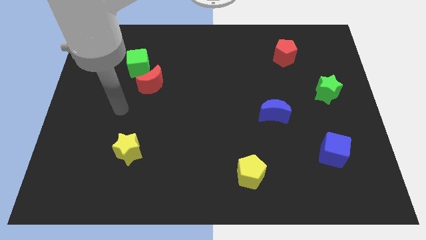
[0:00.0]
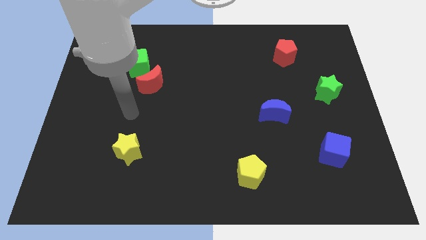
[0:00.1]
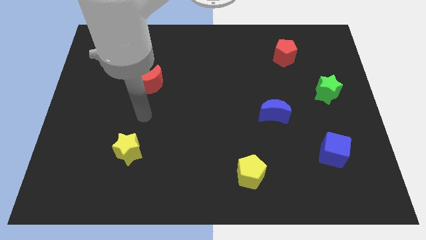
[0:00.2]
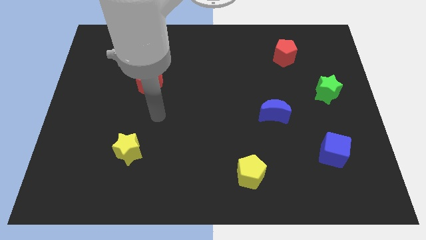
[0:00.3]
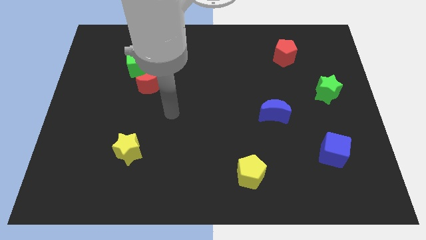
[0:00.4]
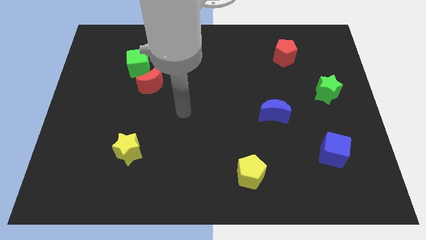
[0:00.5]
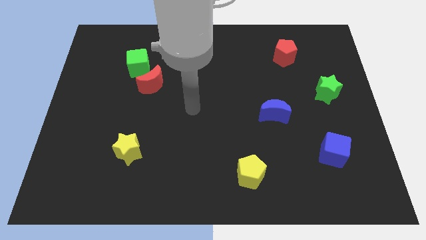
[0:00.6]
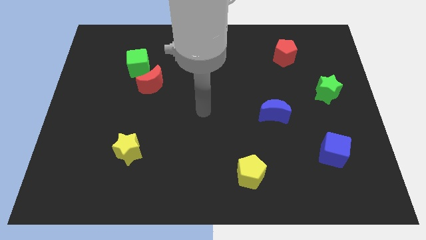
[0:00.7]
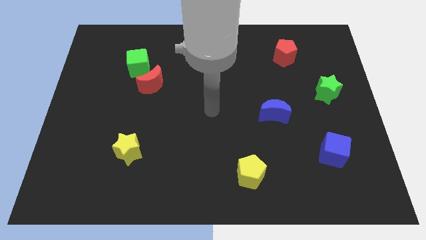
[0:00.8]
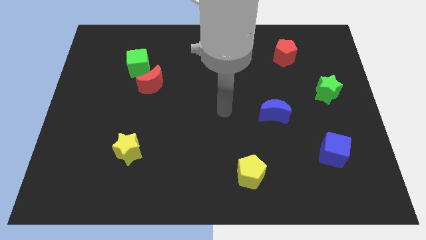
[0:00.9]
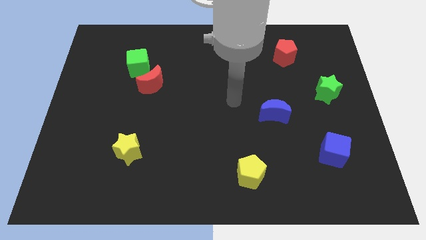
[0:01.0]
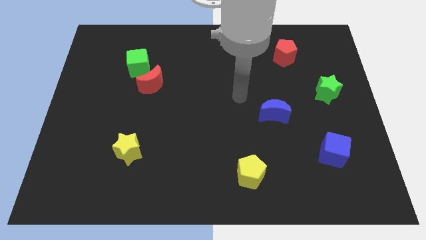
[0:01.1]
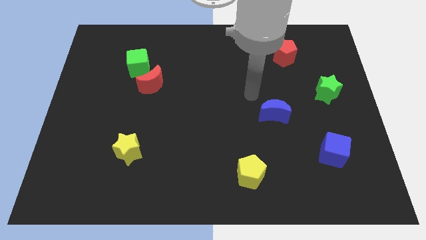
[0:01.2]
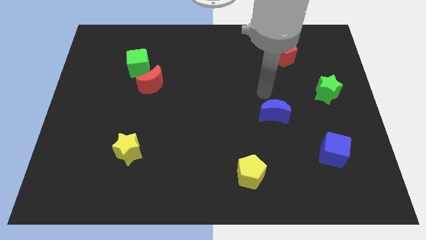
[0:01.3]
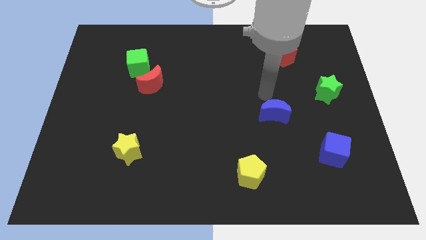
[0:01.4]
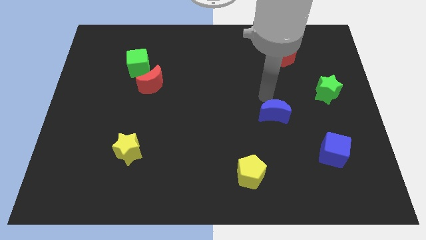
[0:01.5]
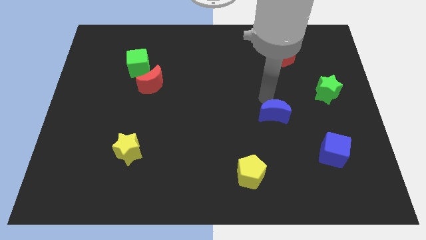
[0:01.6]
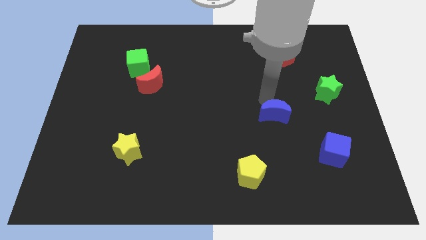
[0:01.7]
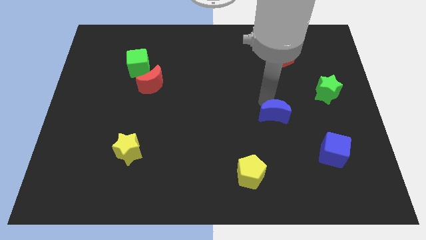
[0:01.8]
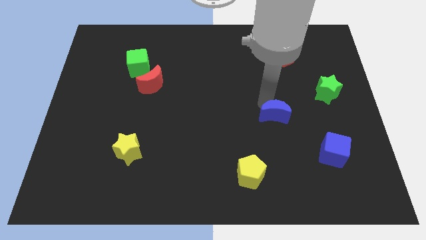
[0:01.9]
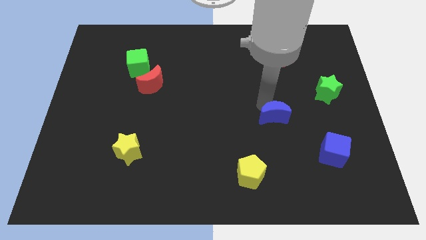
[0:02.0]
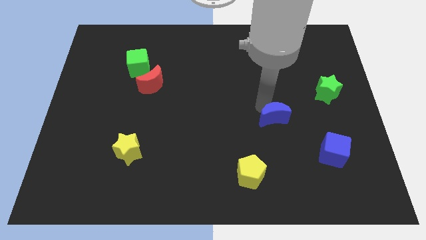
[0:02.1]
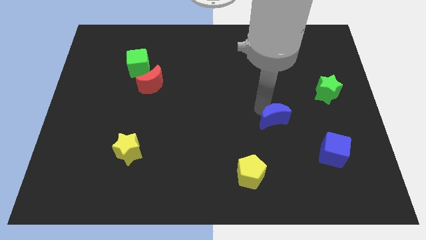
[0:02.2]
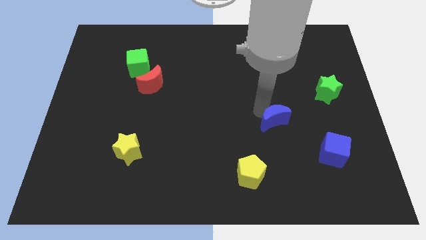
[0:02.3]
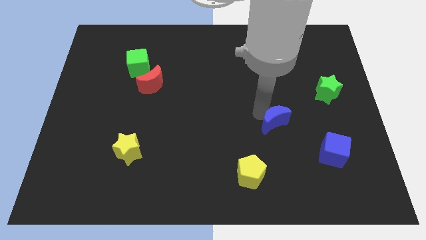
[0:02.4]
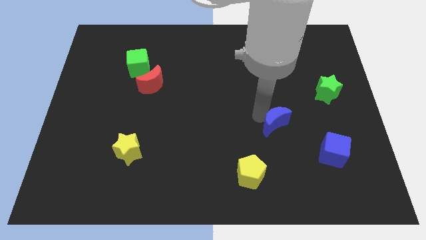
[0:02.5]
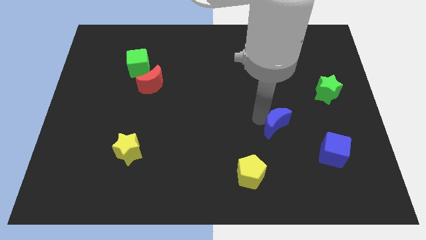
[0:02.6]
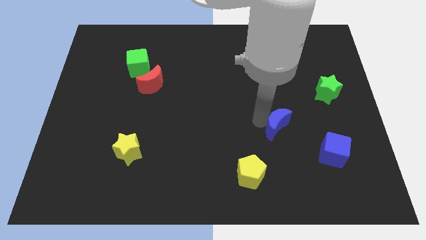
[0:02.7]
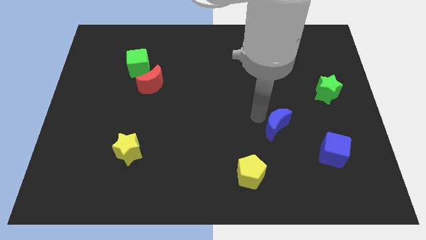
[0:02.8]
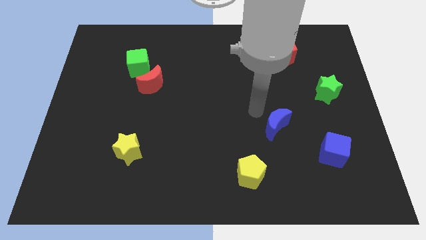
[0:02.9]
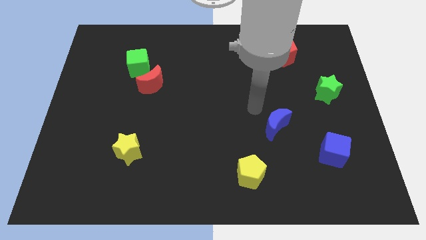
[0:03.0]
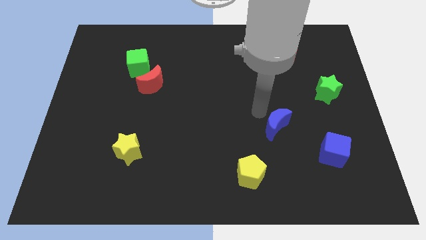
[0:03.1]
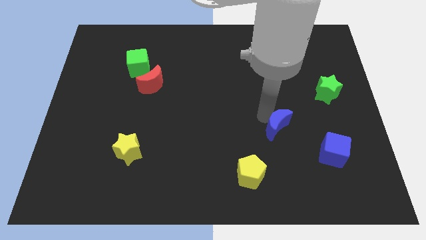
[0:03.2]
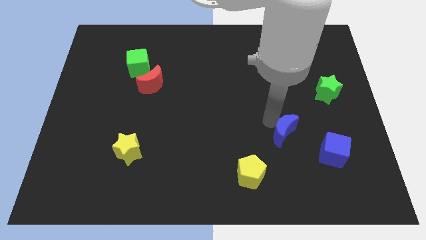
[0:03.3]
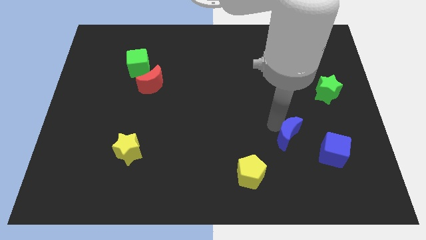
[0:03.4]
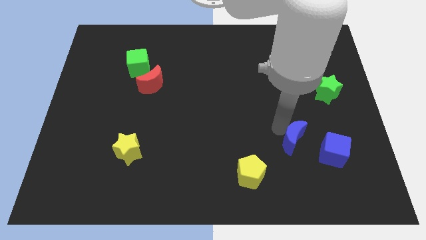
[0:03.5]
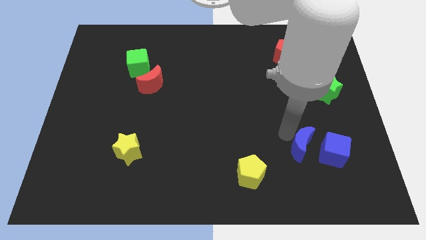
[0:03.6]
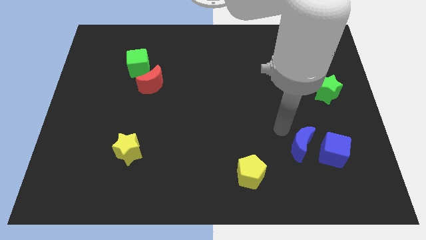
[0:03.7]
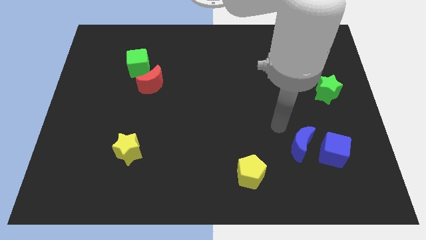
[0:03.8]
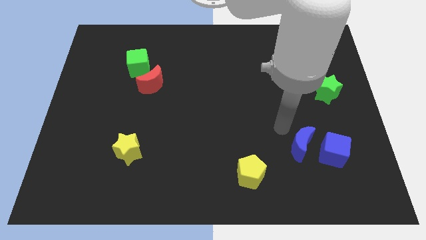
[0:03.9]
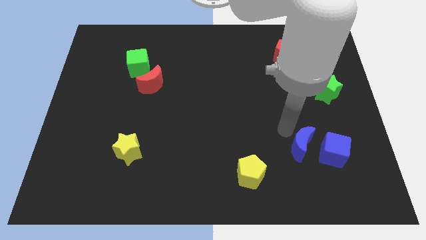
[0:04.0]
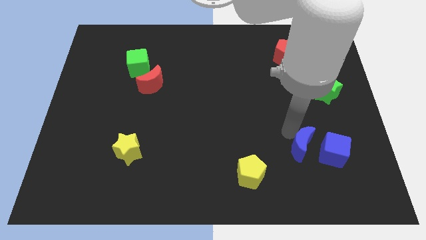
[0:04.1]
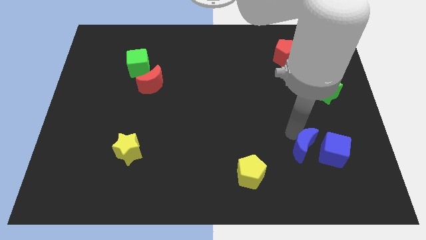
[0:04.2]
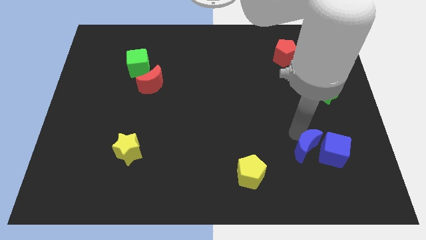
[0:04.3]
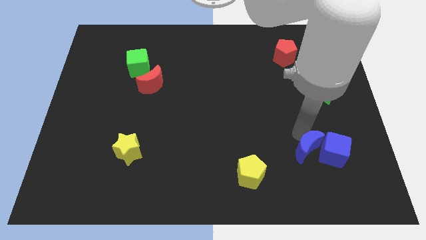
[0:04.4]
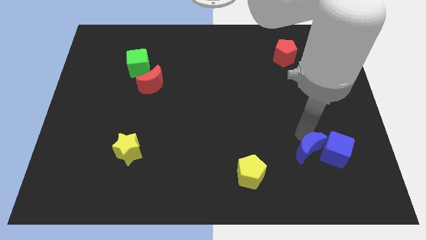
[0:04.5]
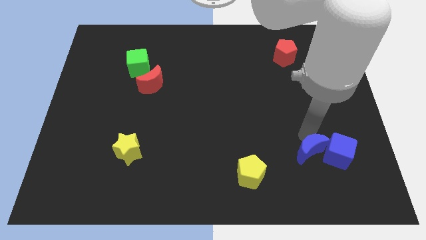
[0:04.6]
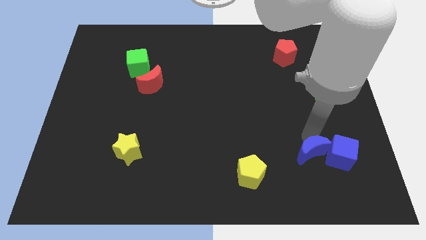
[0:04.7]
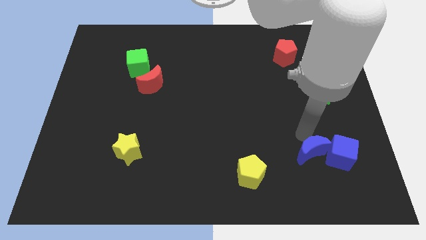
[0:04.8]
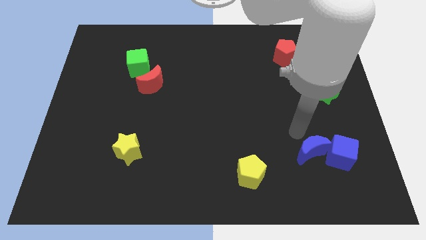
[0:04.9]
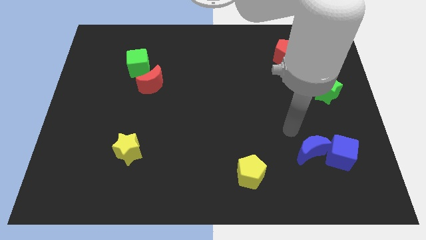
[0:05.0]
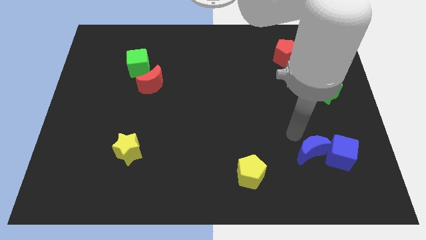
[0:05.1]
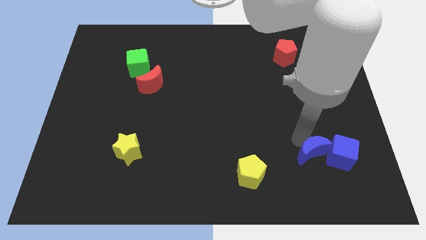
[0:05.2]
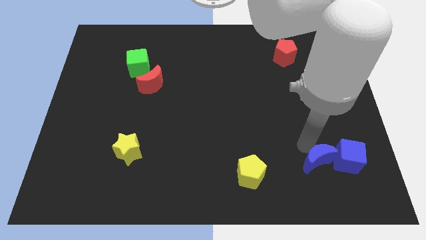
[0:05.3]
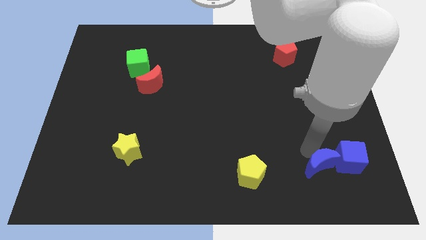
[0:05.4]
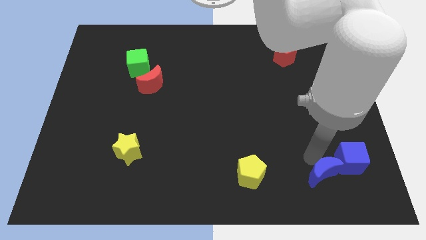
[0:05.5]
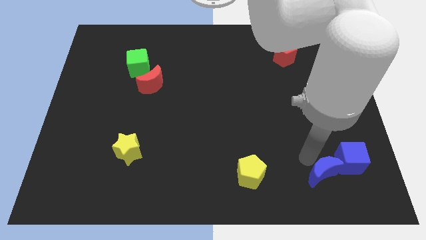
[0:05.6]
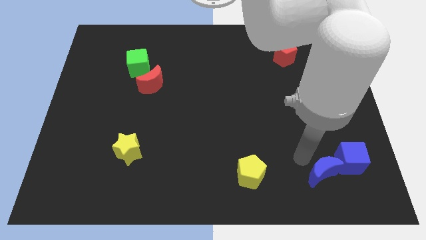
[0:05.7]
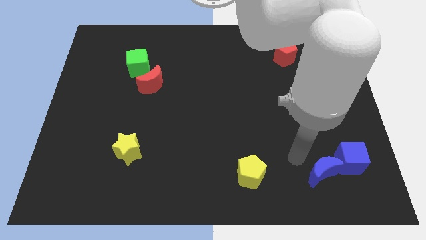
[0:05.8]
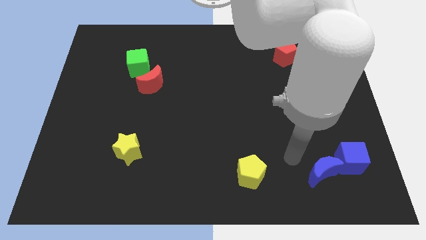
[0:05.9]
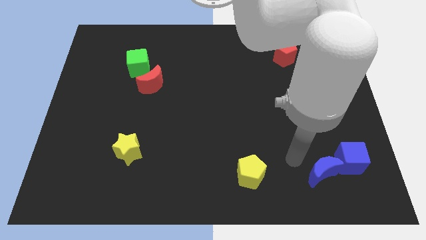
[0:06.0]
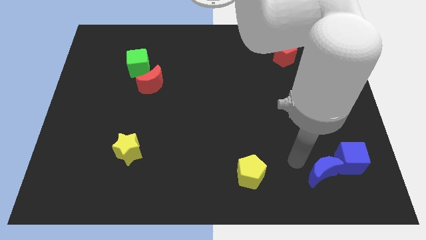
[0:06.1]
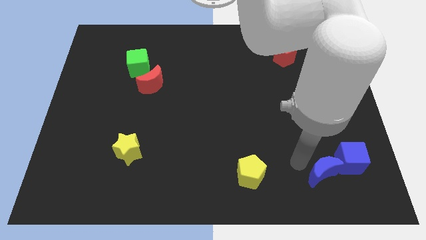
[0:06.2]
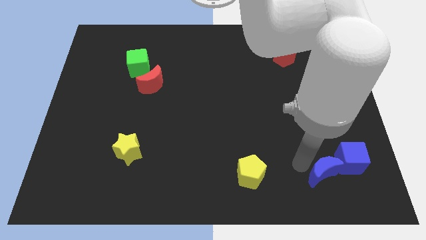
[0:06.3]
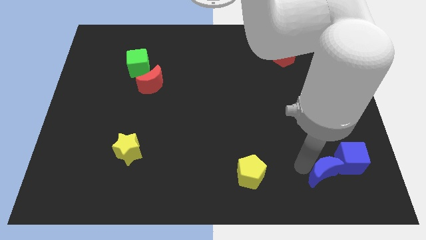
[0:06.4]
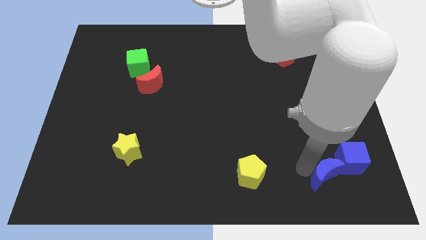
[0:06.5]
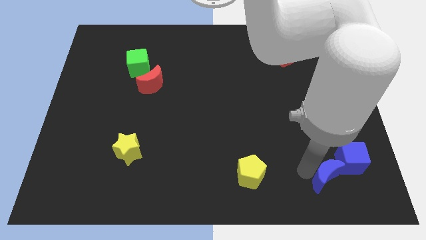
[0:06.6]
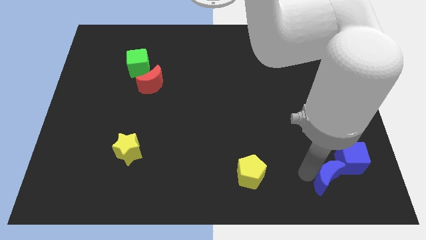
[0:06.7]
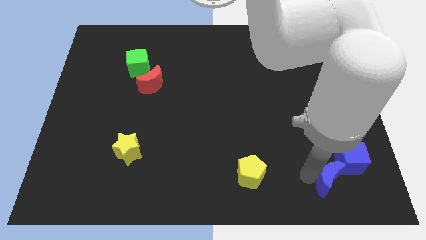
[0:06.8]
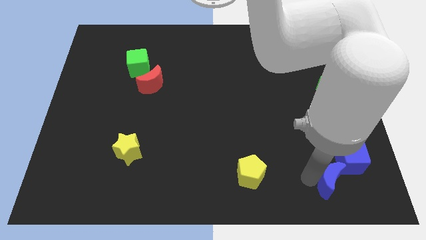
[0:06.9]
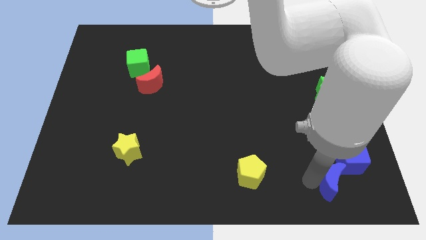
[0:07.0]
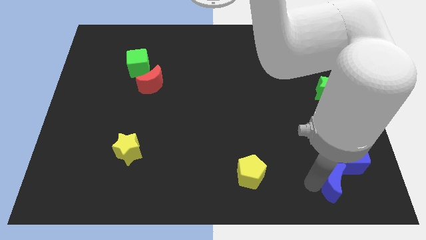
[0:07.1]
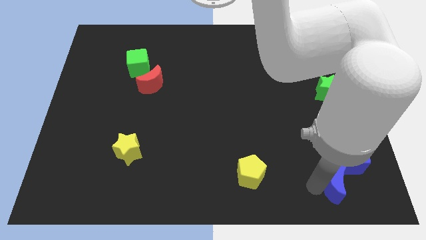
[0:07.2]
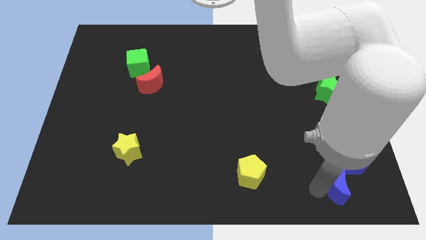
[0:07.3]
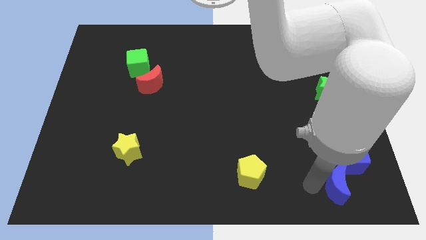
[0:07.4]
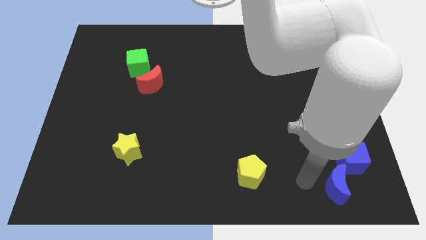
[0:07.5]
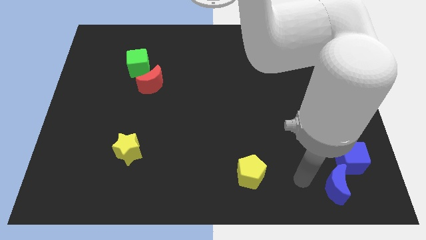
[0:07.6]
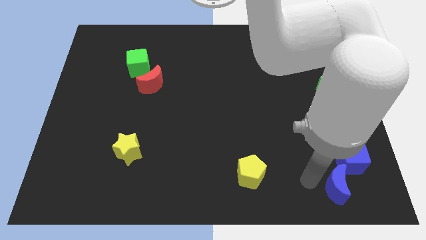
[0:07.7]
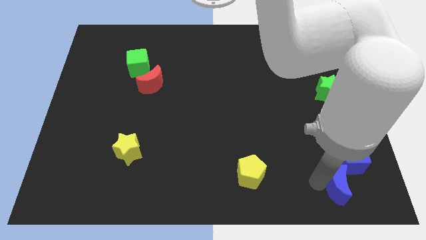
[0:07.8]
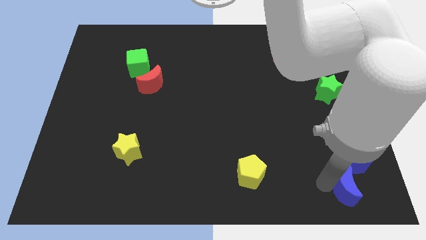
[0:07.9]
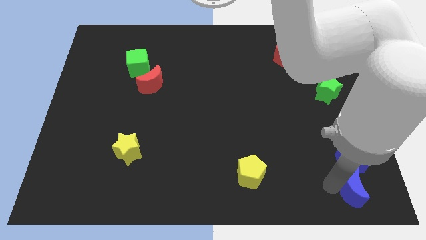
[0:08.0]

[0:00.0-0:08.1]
slide the blue moon to the lower right corner
